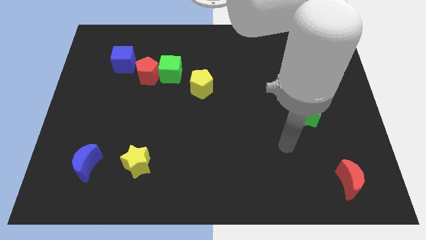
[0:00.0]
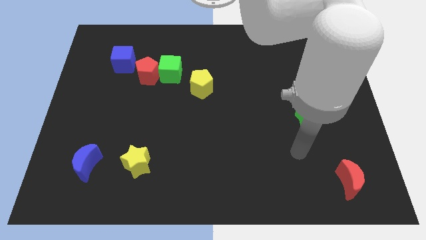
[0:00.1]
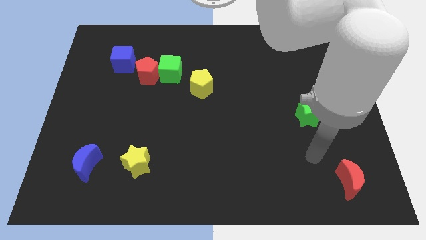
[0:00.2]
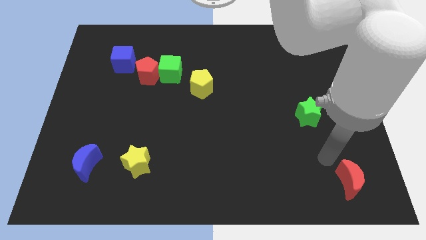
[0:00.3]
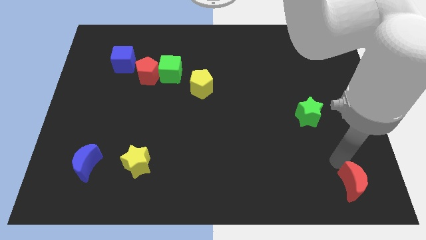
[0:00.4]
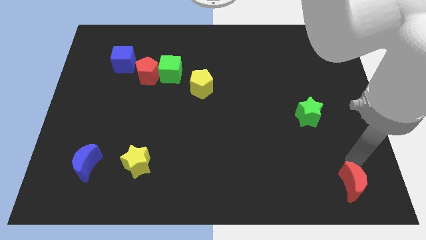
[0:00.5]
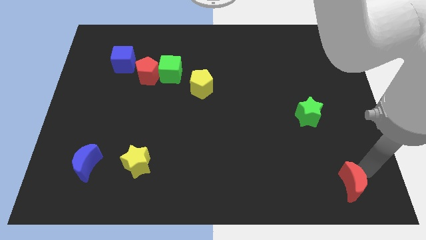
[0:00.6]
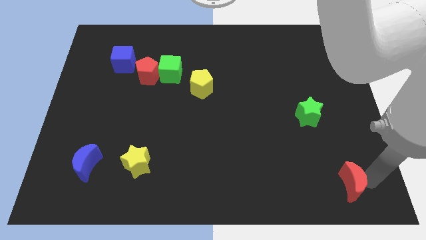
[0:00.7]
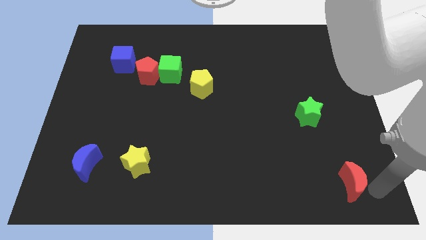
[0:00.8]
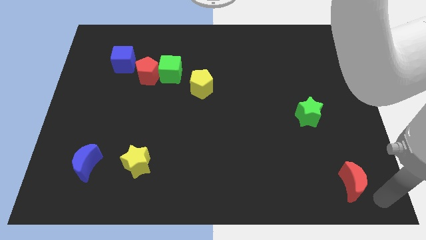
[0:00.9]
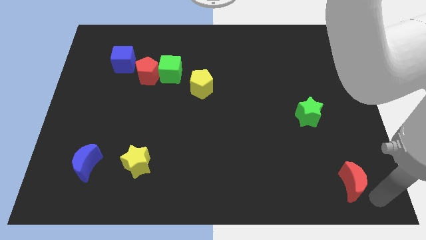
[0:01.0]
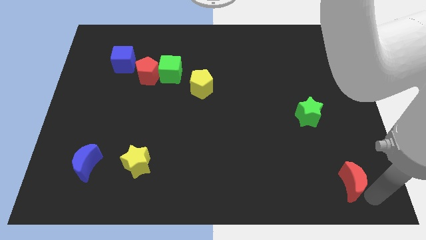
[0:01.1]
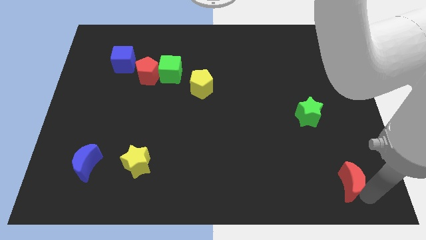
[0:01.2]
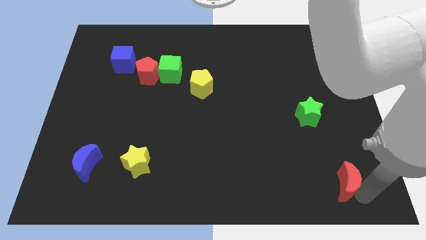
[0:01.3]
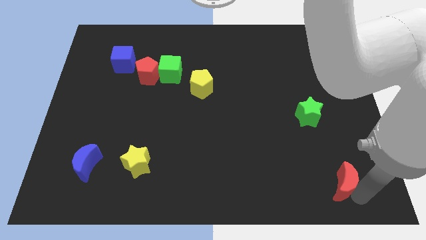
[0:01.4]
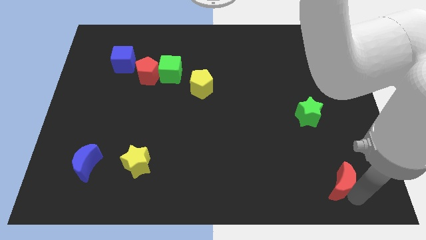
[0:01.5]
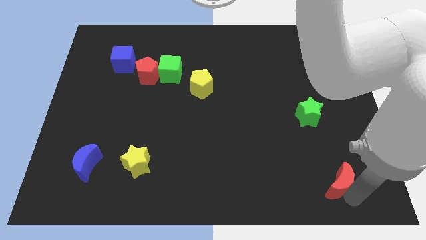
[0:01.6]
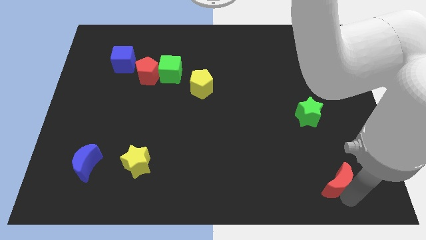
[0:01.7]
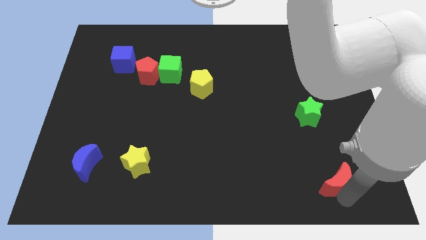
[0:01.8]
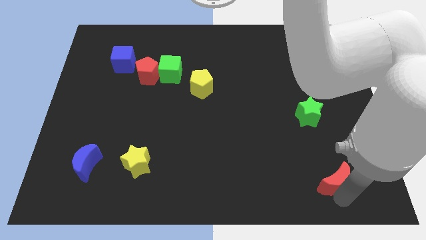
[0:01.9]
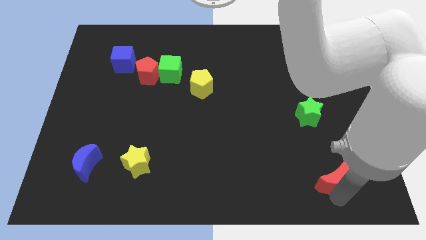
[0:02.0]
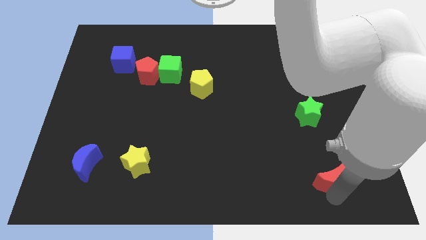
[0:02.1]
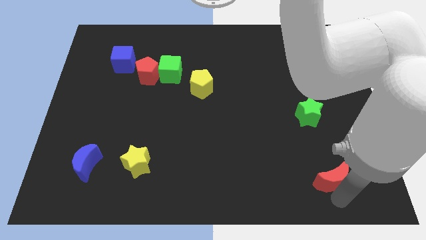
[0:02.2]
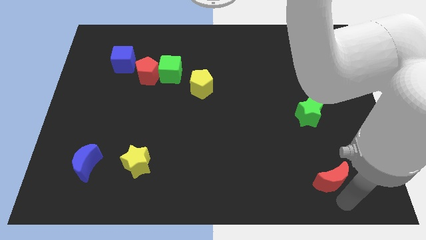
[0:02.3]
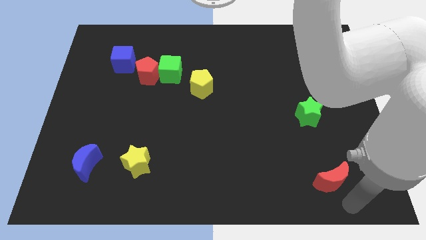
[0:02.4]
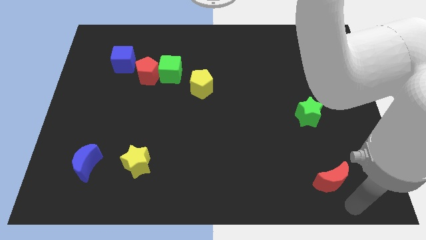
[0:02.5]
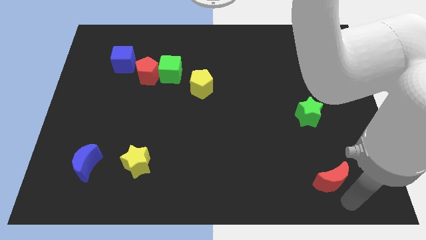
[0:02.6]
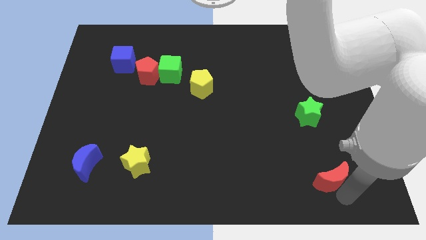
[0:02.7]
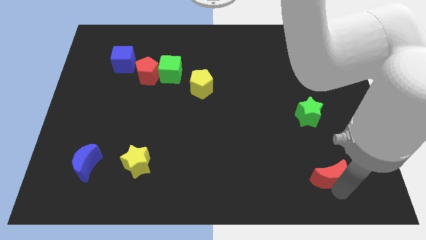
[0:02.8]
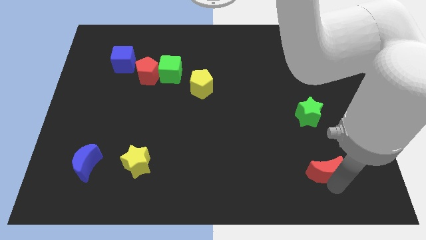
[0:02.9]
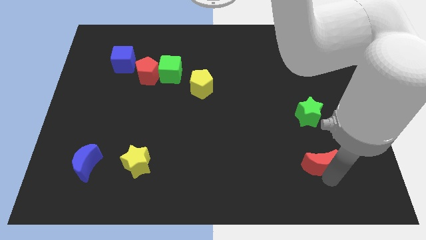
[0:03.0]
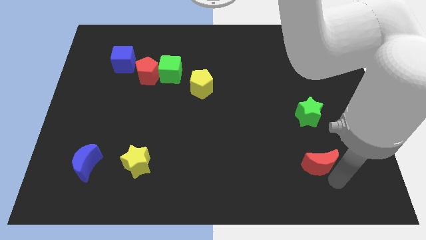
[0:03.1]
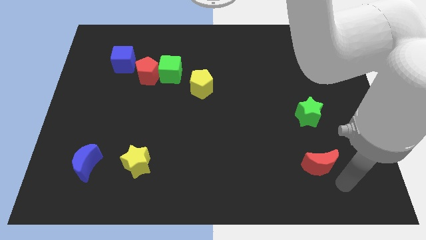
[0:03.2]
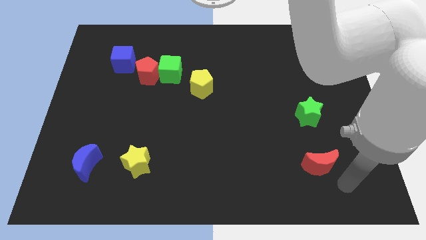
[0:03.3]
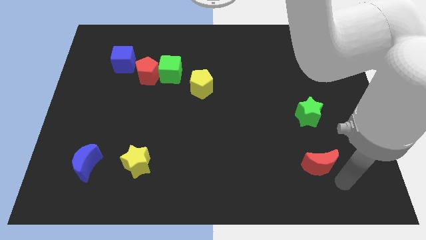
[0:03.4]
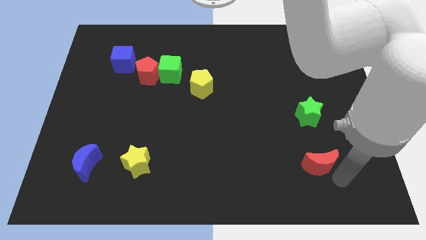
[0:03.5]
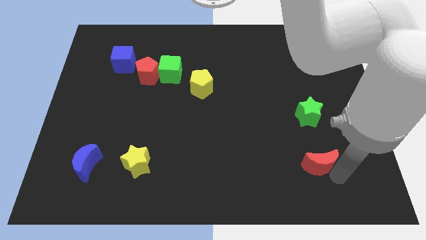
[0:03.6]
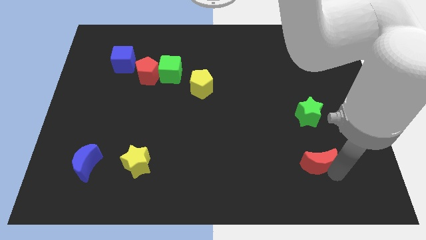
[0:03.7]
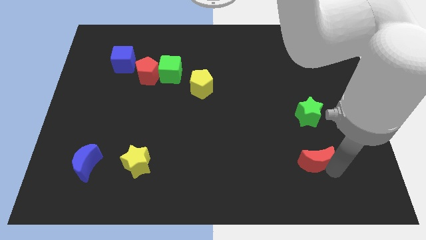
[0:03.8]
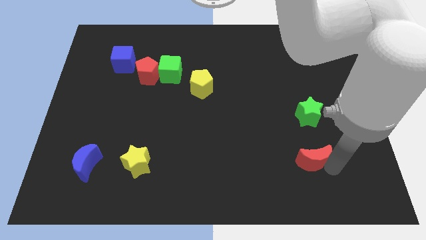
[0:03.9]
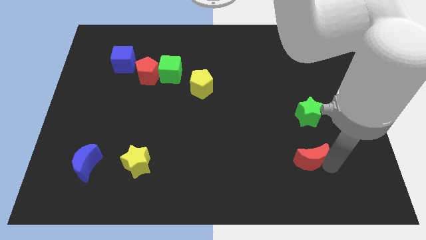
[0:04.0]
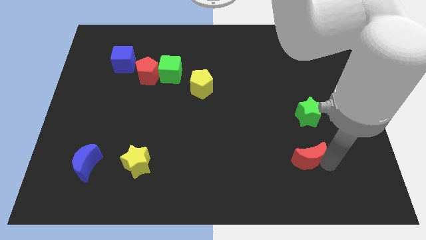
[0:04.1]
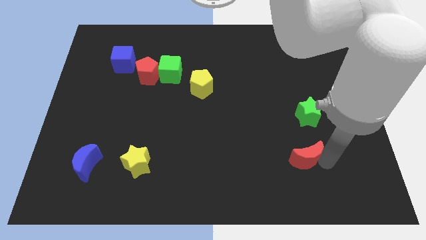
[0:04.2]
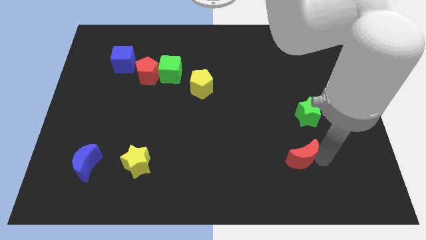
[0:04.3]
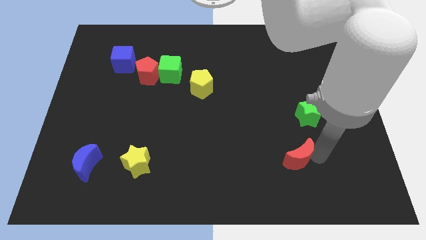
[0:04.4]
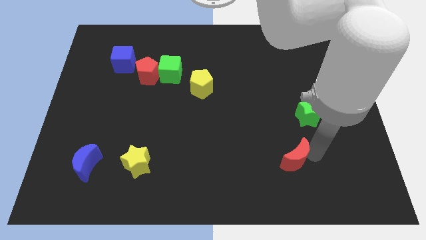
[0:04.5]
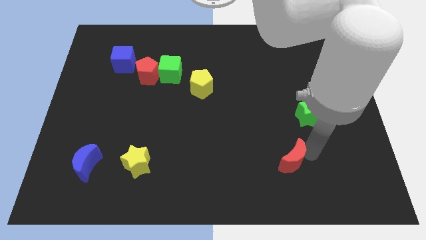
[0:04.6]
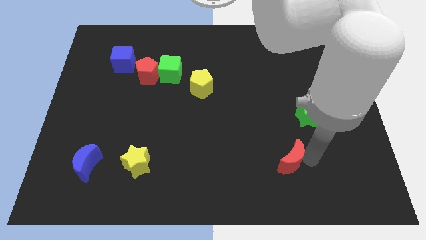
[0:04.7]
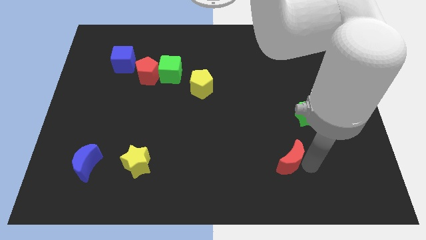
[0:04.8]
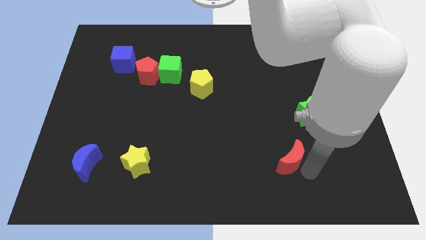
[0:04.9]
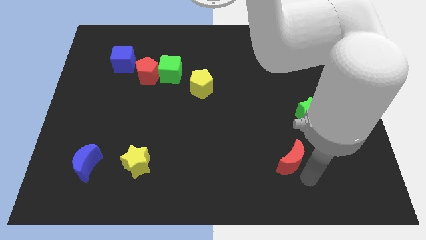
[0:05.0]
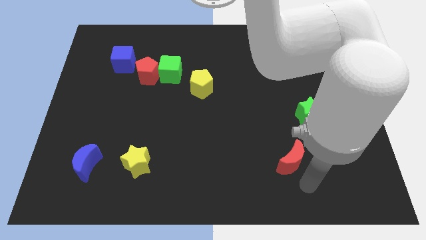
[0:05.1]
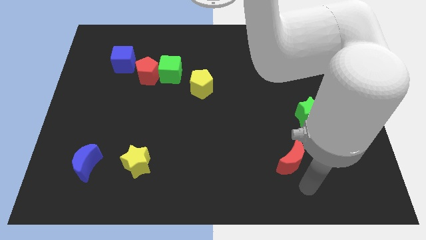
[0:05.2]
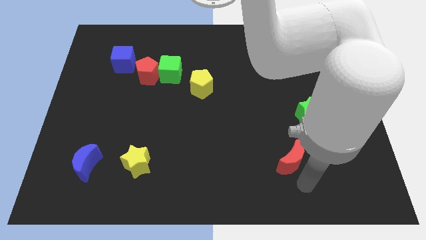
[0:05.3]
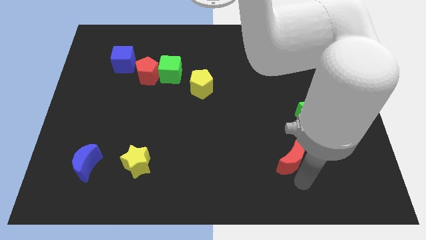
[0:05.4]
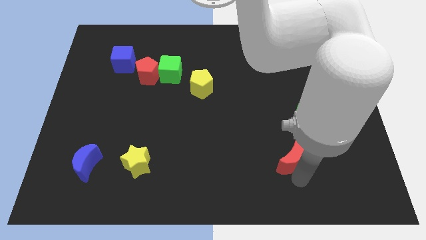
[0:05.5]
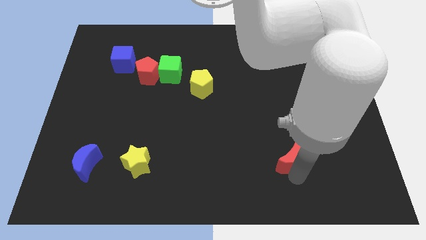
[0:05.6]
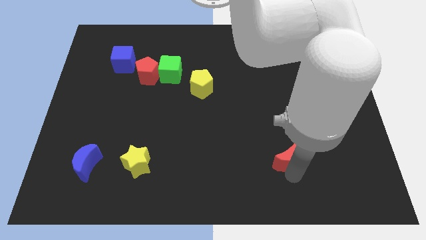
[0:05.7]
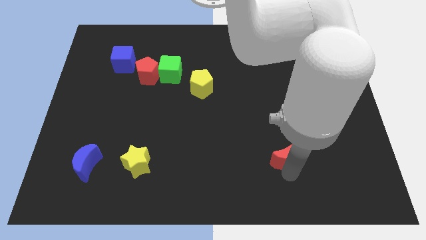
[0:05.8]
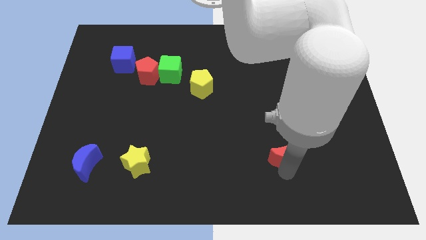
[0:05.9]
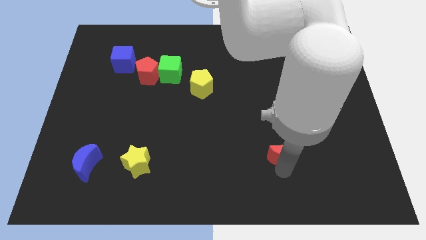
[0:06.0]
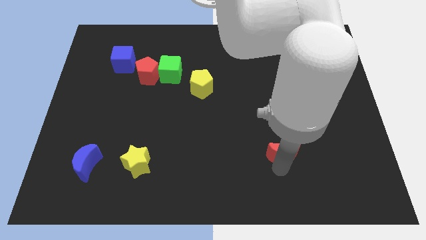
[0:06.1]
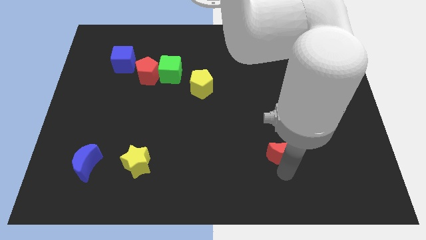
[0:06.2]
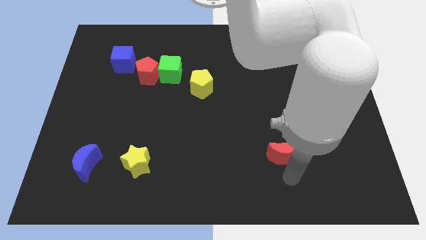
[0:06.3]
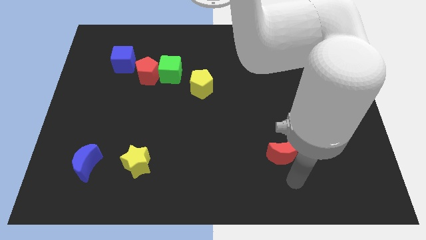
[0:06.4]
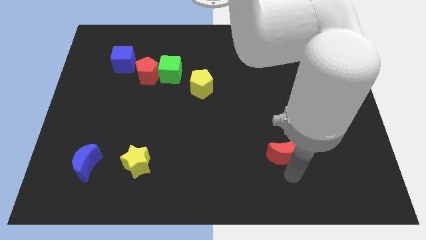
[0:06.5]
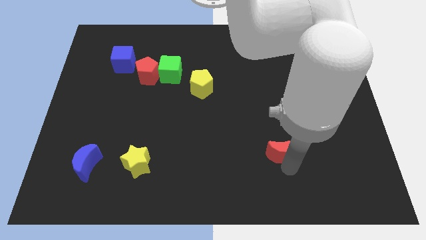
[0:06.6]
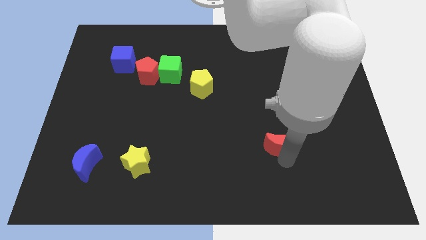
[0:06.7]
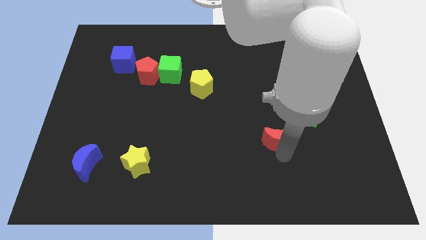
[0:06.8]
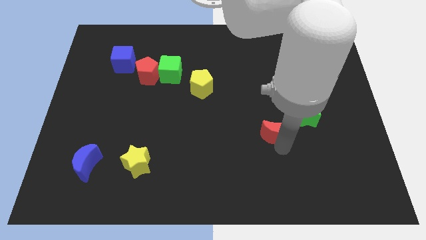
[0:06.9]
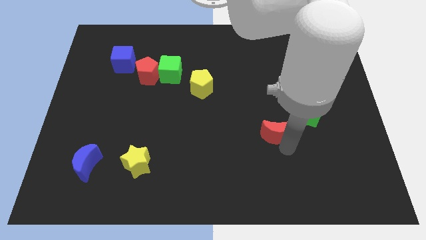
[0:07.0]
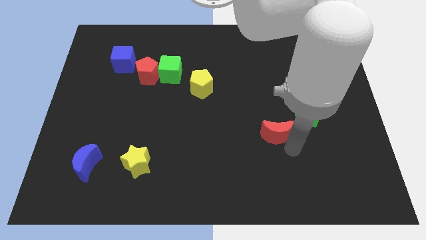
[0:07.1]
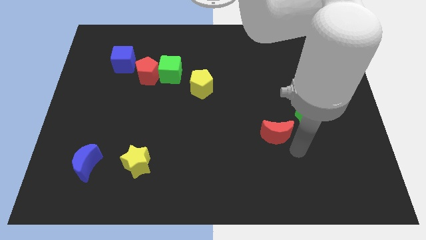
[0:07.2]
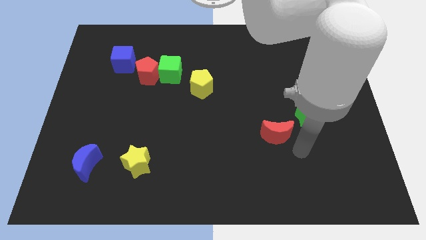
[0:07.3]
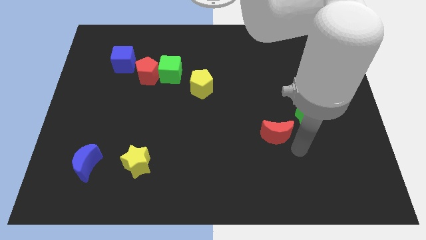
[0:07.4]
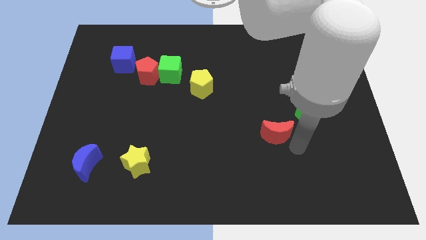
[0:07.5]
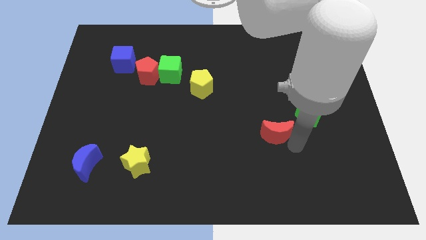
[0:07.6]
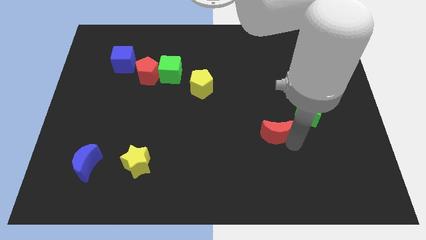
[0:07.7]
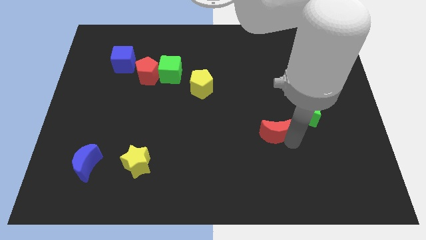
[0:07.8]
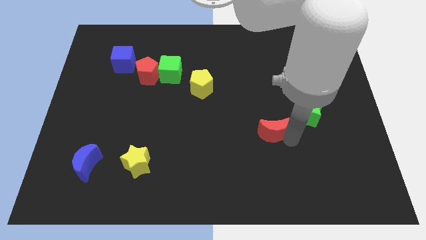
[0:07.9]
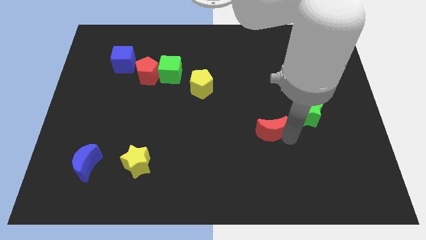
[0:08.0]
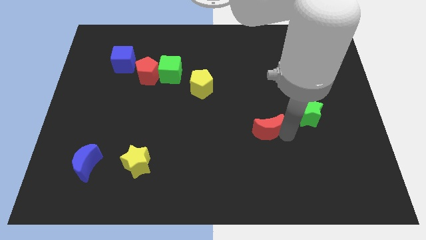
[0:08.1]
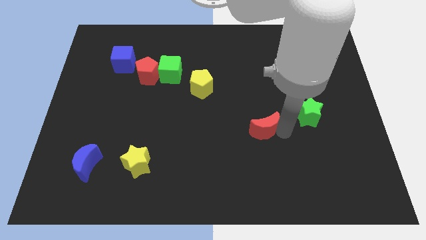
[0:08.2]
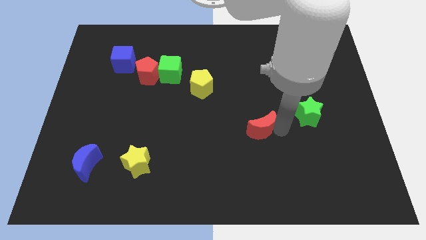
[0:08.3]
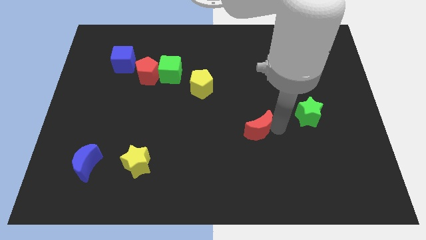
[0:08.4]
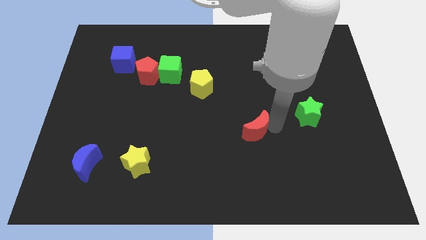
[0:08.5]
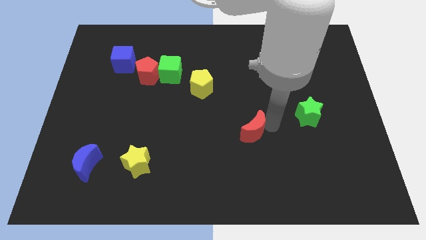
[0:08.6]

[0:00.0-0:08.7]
move the red moon to the center of the board
